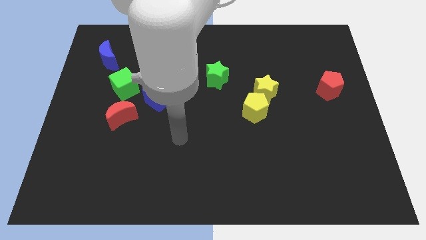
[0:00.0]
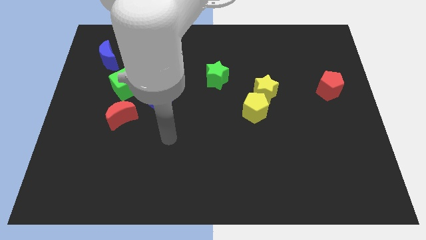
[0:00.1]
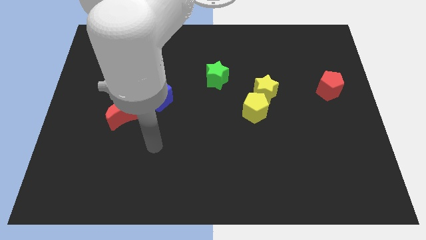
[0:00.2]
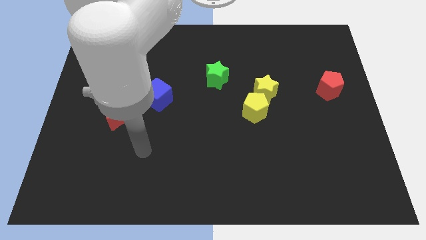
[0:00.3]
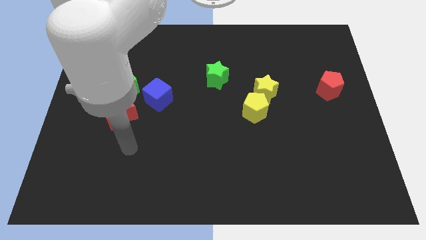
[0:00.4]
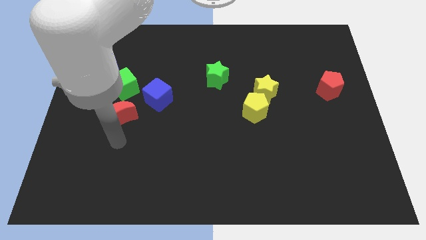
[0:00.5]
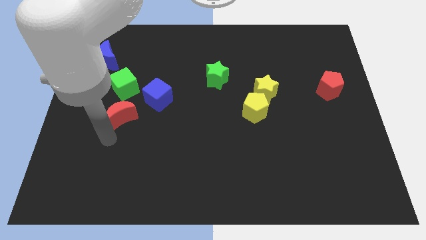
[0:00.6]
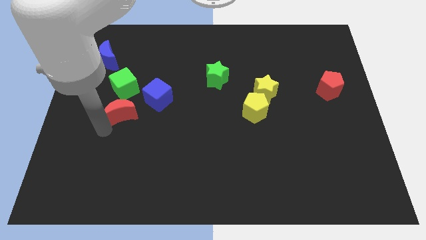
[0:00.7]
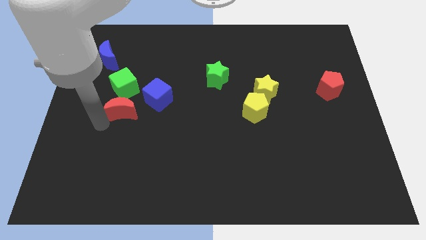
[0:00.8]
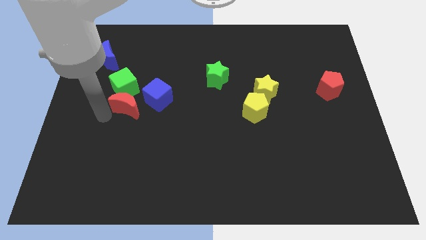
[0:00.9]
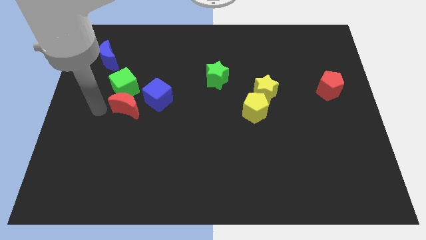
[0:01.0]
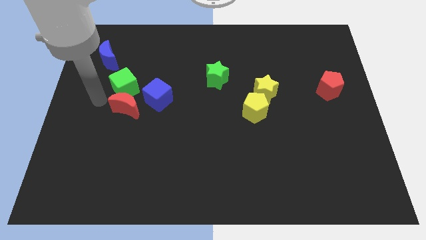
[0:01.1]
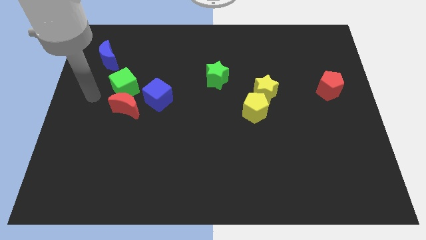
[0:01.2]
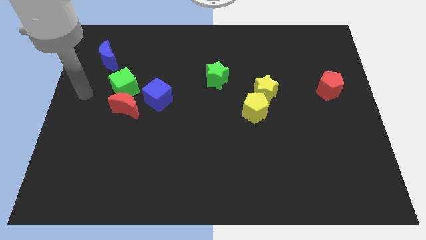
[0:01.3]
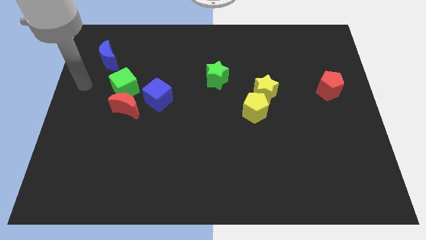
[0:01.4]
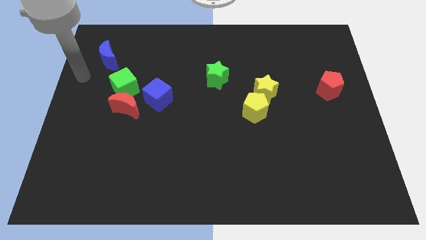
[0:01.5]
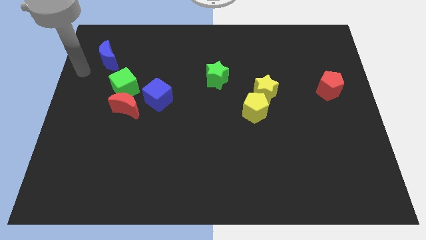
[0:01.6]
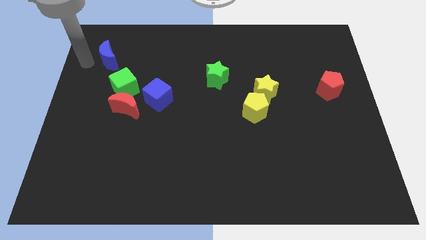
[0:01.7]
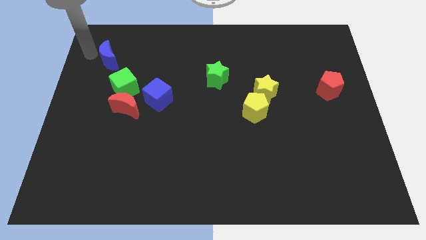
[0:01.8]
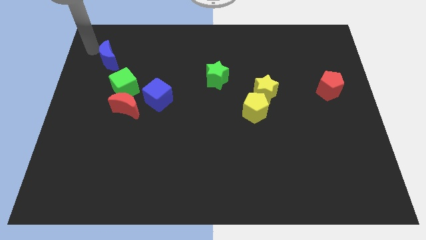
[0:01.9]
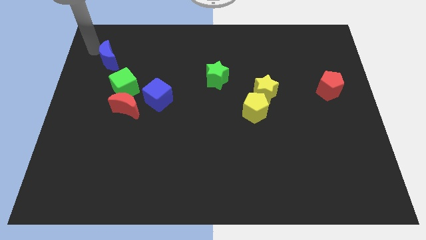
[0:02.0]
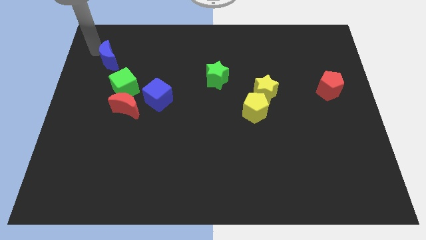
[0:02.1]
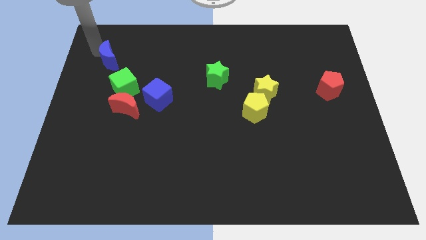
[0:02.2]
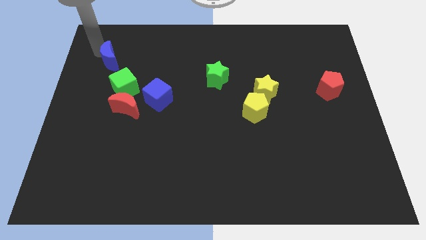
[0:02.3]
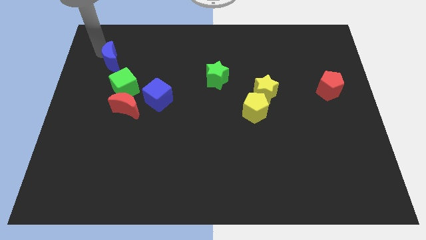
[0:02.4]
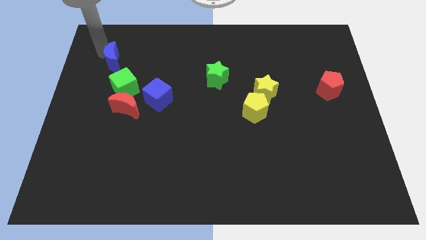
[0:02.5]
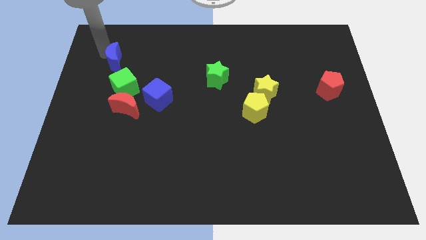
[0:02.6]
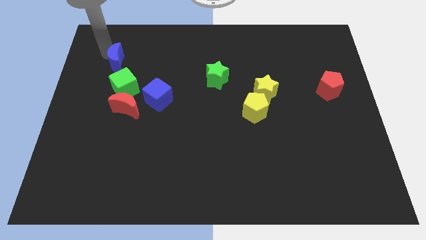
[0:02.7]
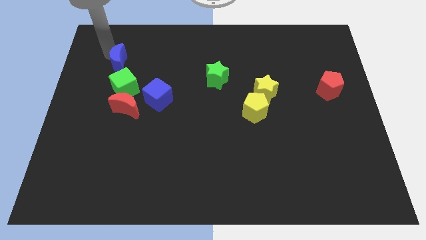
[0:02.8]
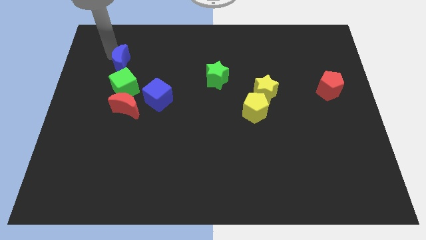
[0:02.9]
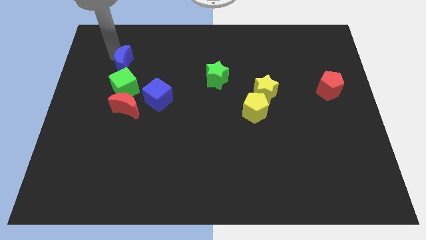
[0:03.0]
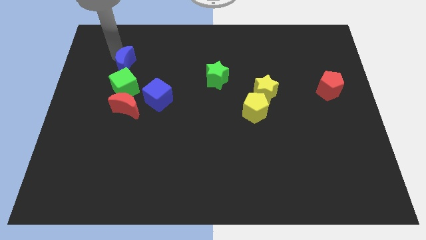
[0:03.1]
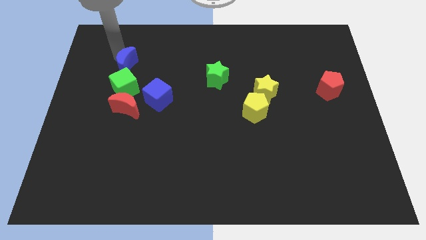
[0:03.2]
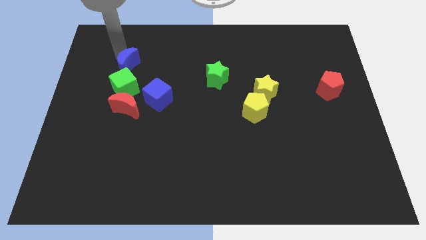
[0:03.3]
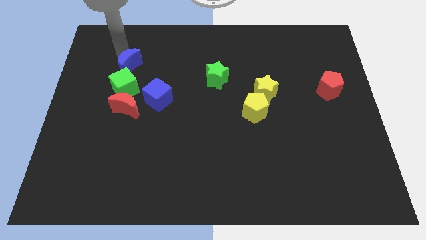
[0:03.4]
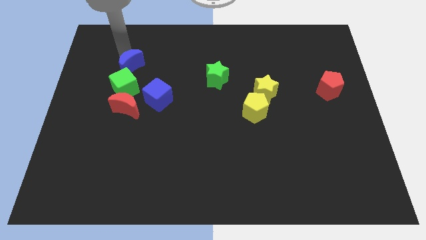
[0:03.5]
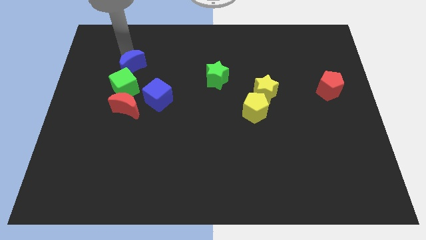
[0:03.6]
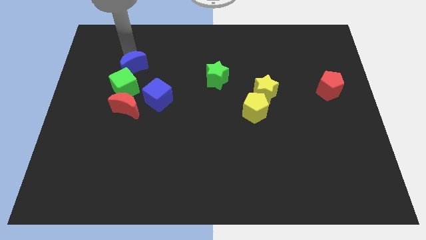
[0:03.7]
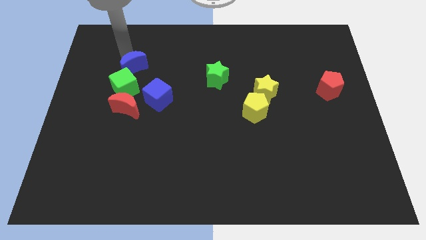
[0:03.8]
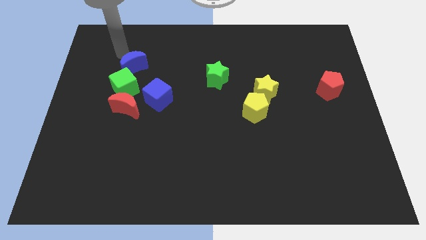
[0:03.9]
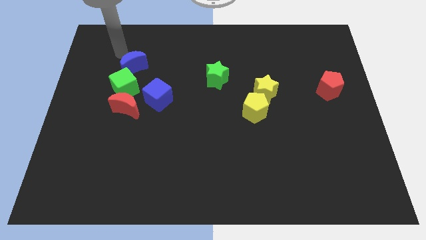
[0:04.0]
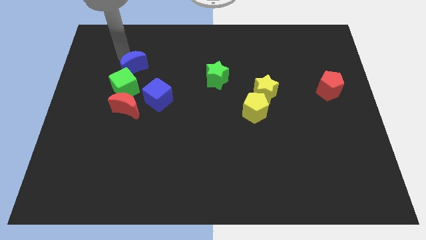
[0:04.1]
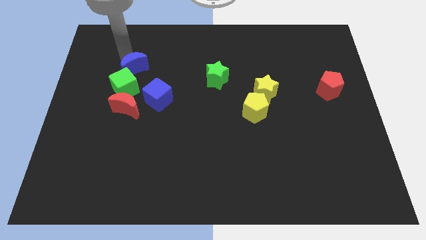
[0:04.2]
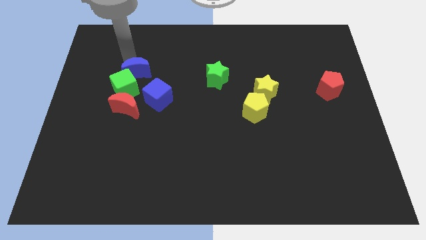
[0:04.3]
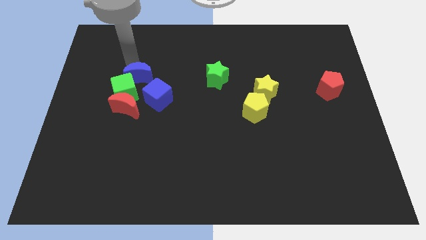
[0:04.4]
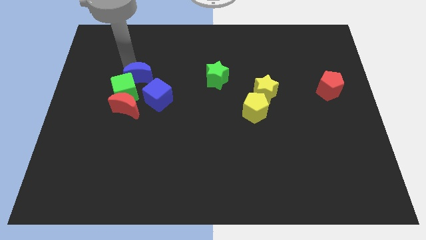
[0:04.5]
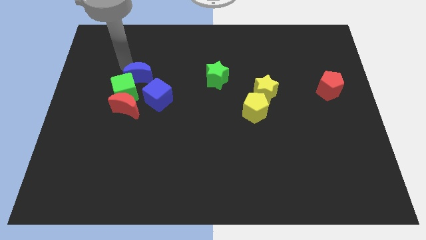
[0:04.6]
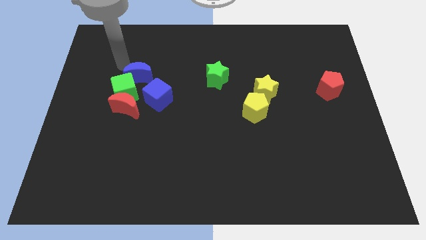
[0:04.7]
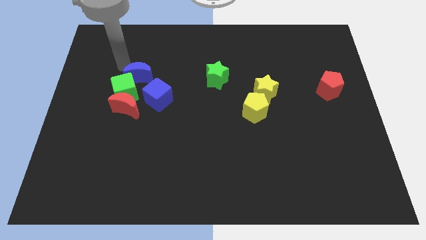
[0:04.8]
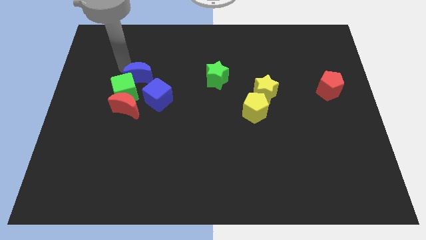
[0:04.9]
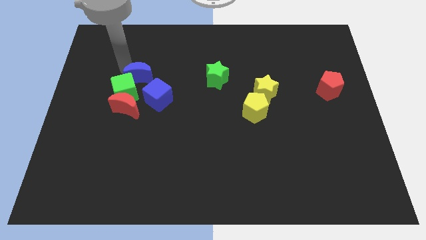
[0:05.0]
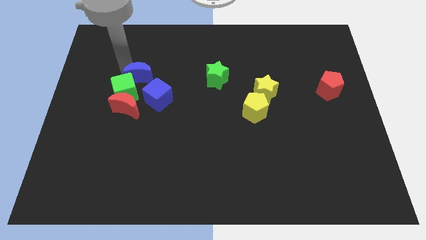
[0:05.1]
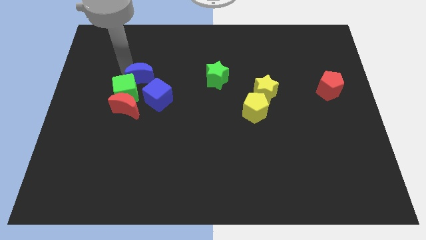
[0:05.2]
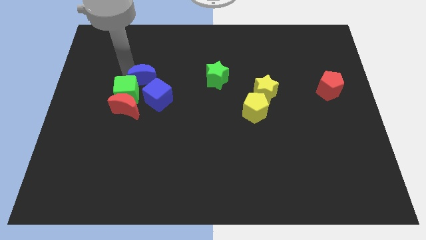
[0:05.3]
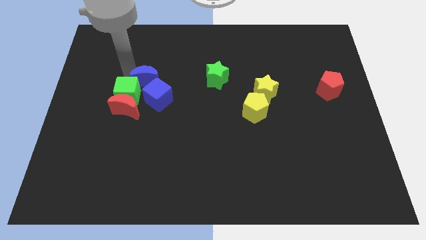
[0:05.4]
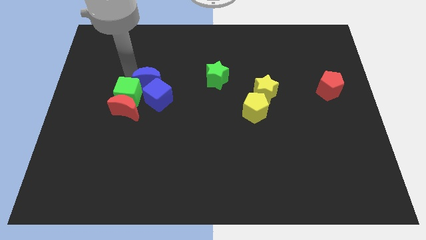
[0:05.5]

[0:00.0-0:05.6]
move the blue moon to the blue cube

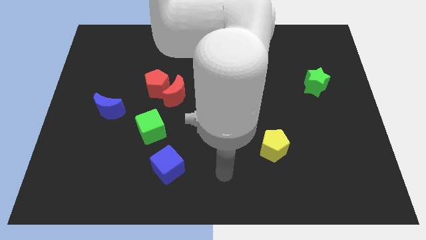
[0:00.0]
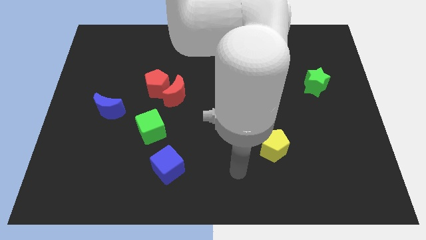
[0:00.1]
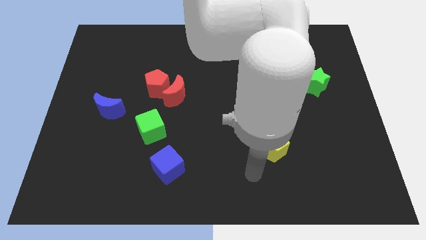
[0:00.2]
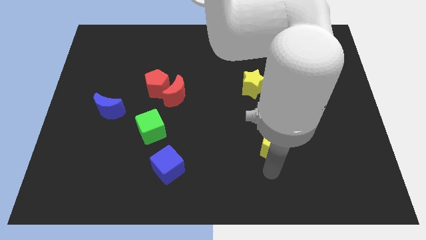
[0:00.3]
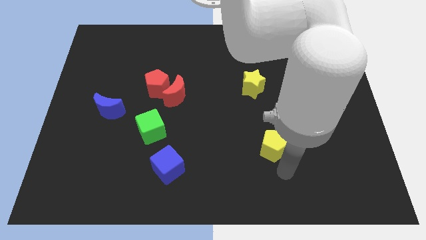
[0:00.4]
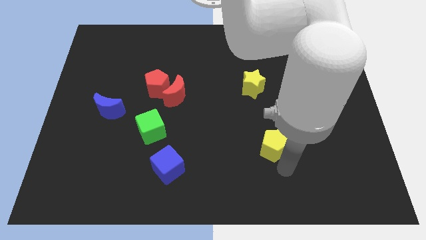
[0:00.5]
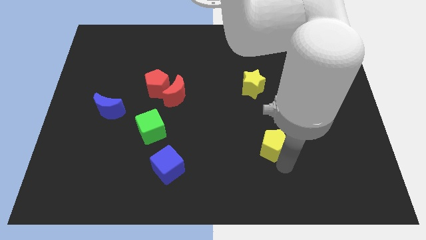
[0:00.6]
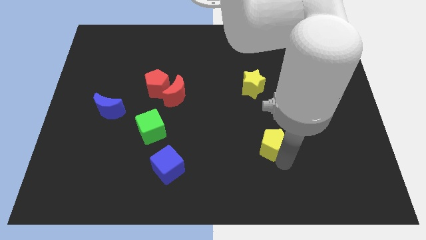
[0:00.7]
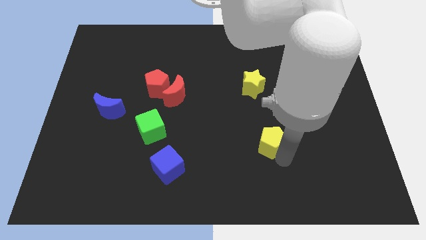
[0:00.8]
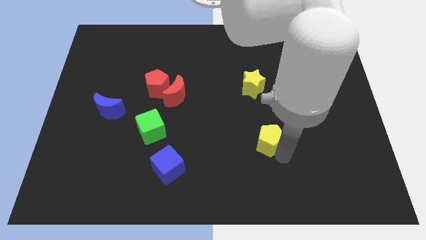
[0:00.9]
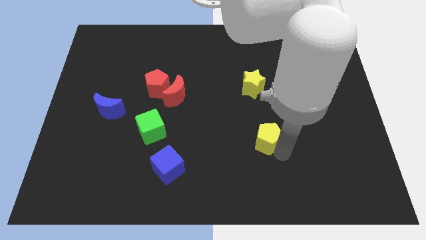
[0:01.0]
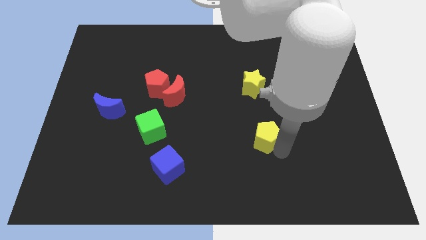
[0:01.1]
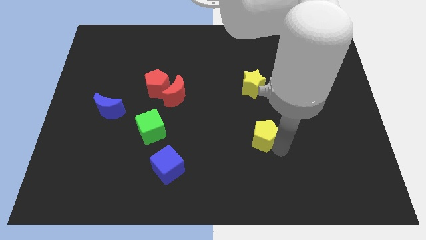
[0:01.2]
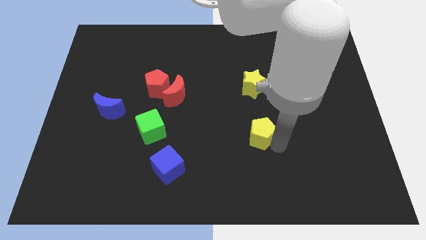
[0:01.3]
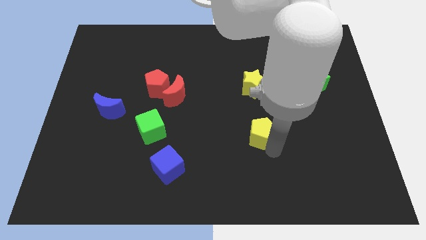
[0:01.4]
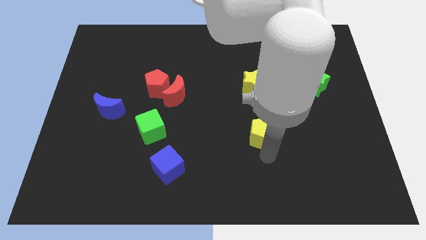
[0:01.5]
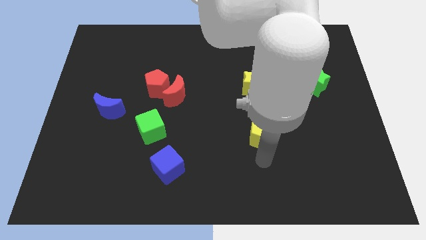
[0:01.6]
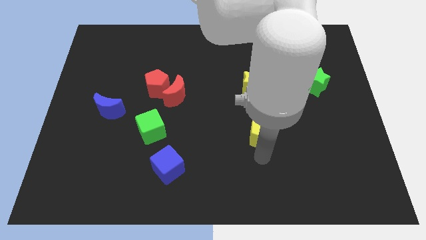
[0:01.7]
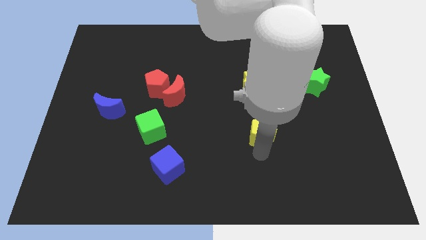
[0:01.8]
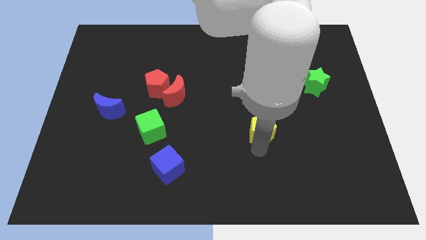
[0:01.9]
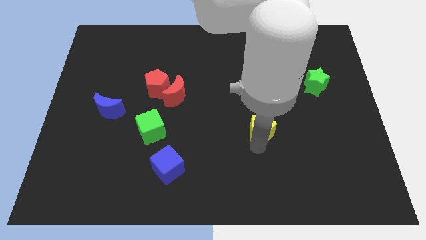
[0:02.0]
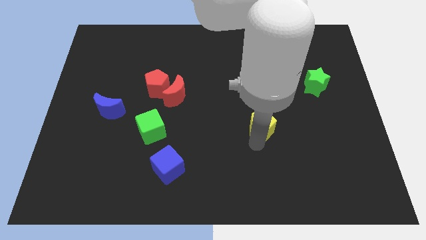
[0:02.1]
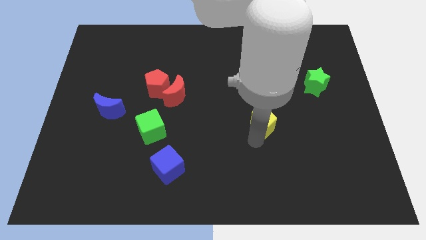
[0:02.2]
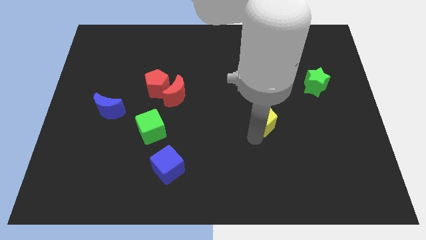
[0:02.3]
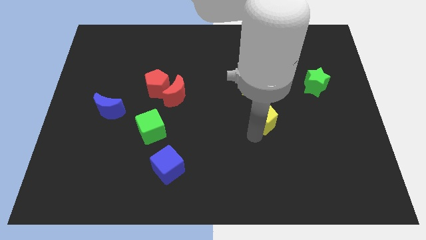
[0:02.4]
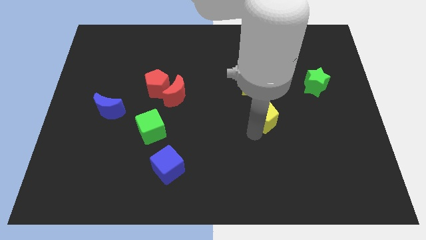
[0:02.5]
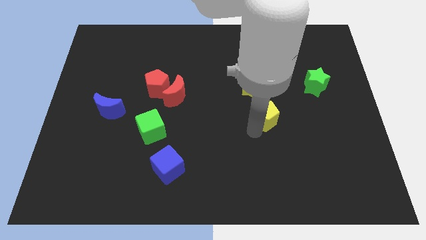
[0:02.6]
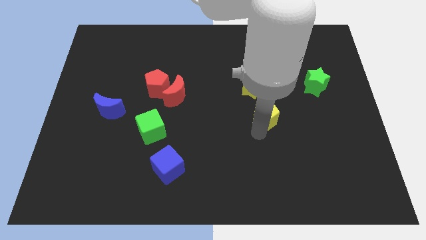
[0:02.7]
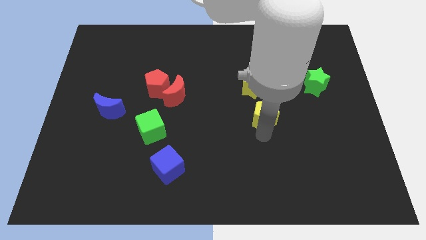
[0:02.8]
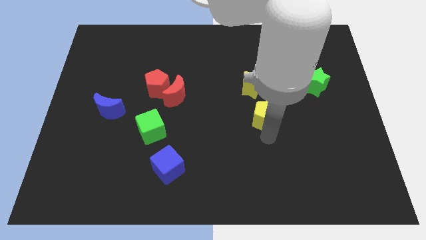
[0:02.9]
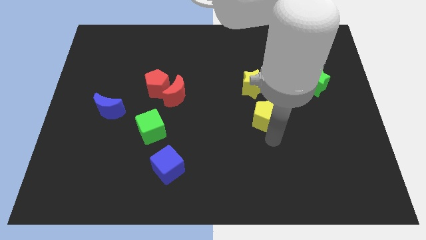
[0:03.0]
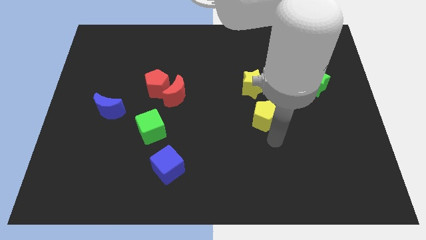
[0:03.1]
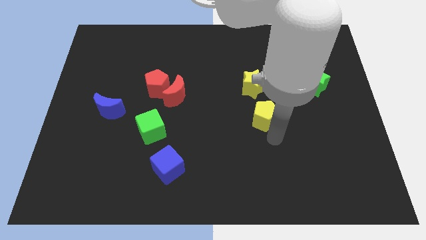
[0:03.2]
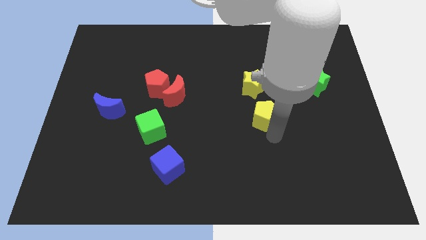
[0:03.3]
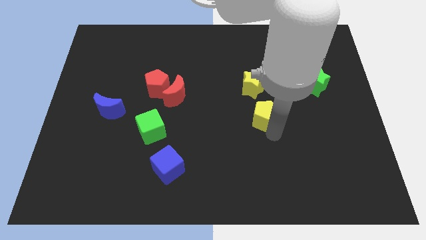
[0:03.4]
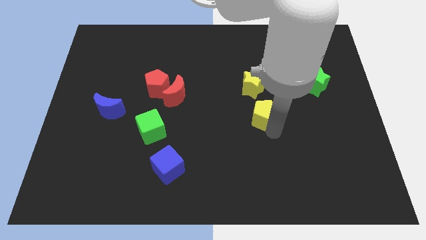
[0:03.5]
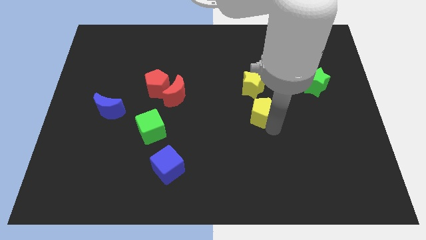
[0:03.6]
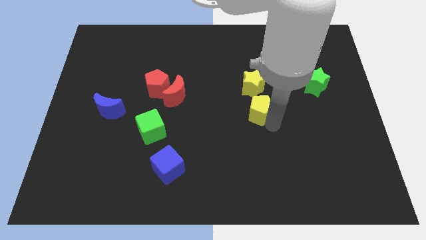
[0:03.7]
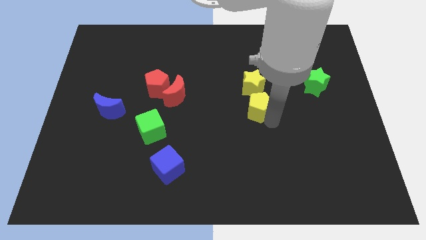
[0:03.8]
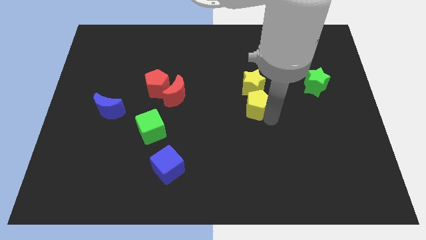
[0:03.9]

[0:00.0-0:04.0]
put the yellow pentagon towards the yellow star
